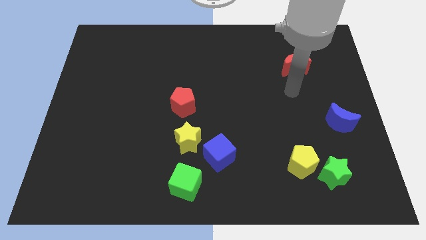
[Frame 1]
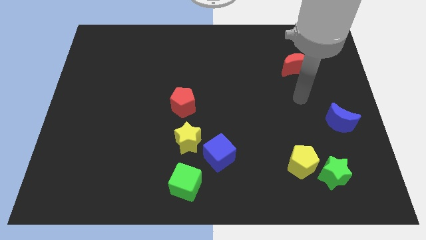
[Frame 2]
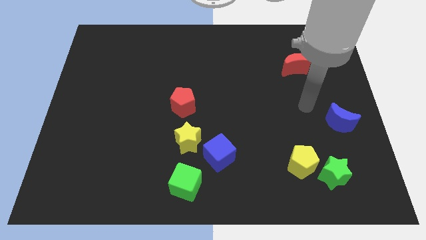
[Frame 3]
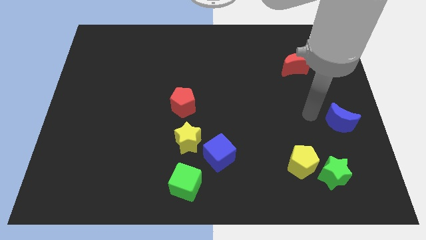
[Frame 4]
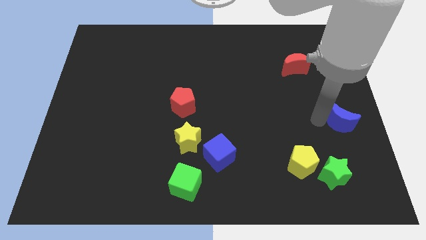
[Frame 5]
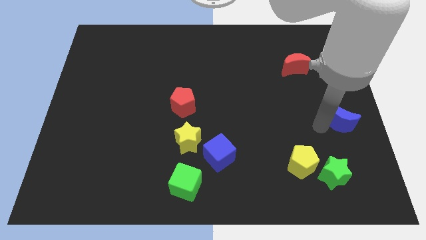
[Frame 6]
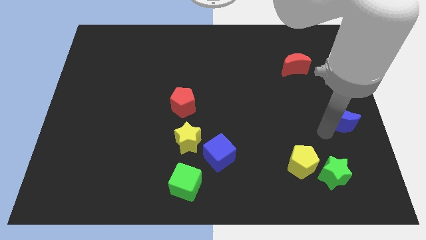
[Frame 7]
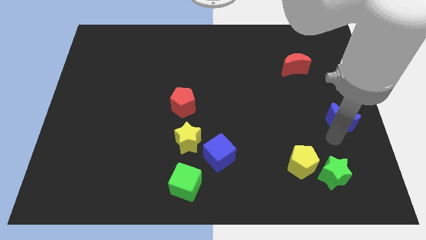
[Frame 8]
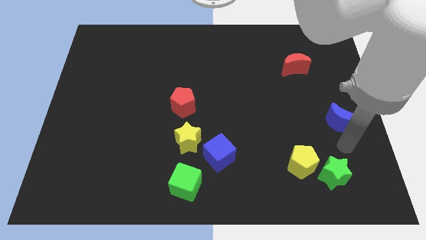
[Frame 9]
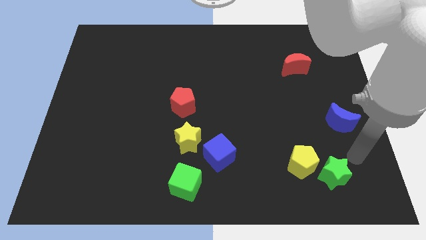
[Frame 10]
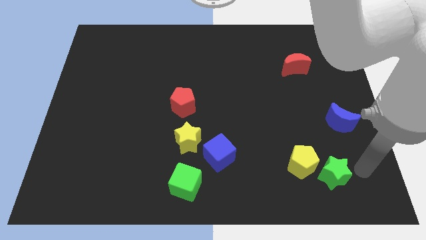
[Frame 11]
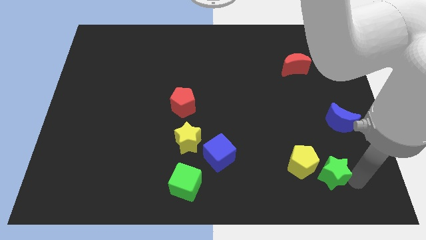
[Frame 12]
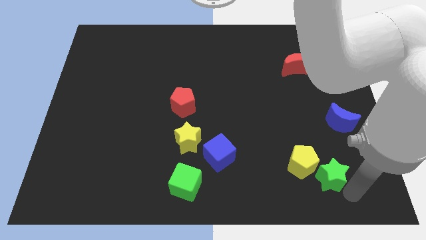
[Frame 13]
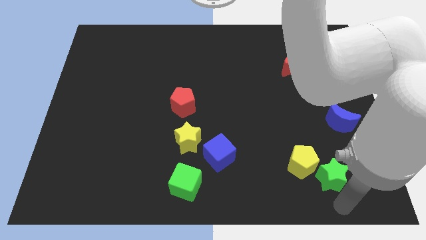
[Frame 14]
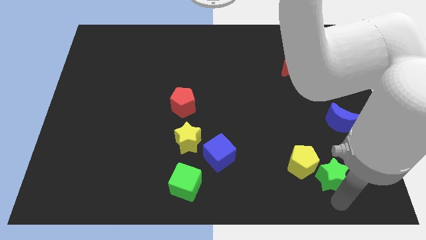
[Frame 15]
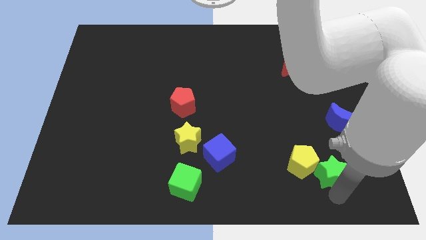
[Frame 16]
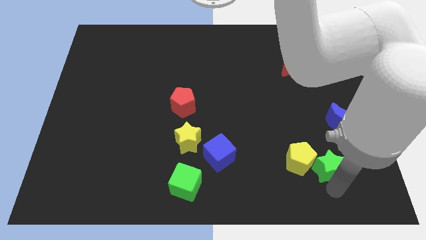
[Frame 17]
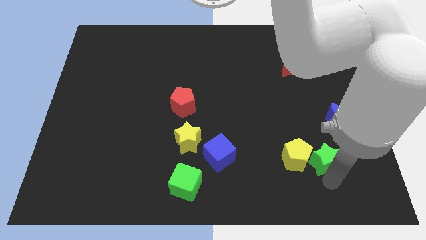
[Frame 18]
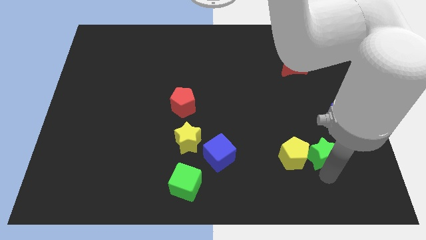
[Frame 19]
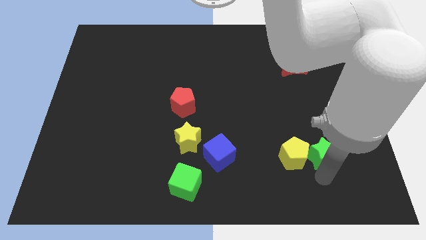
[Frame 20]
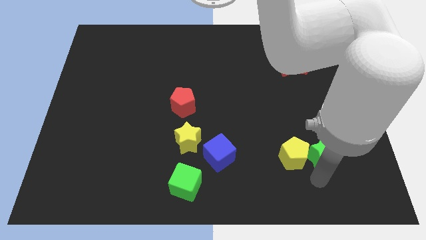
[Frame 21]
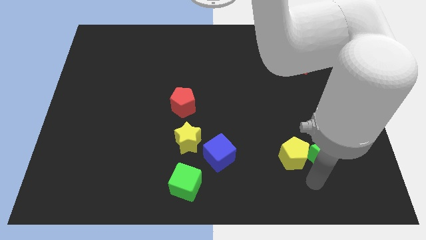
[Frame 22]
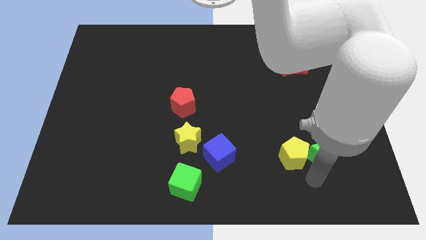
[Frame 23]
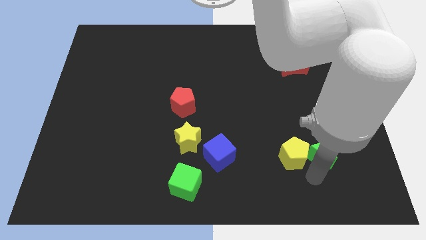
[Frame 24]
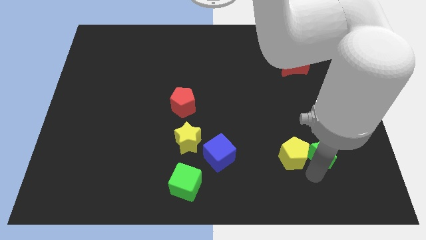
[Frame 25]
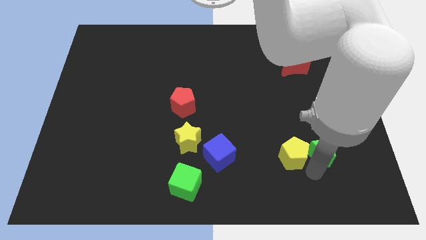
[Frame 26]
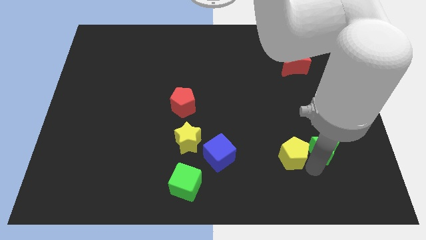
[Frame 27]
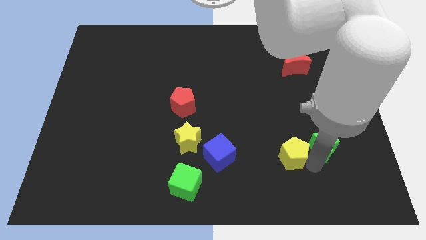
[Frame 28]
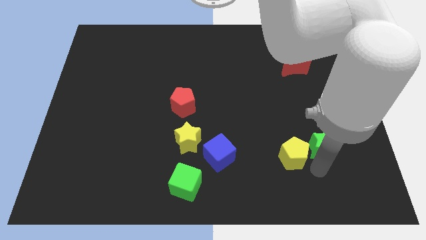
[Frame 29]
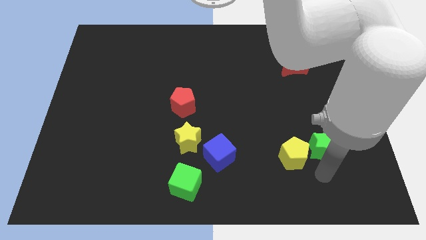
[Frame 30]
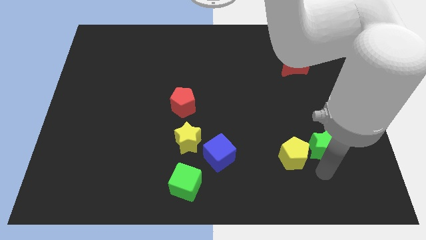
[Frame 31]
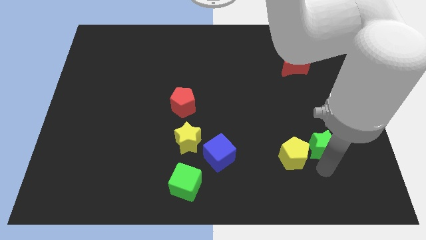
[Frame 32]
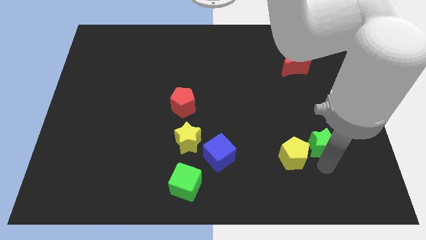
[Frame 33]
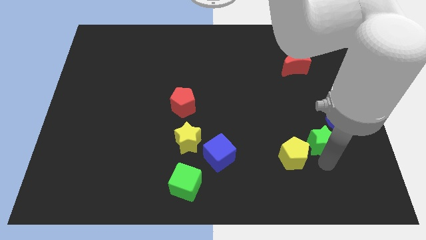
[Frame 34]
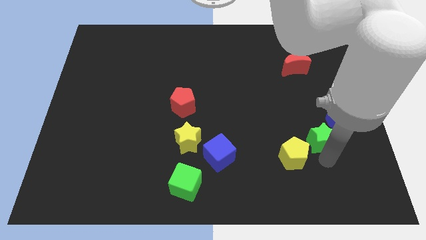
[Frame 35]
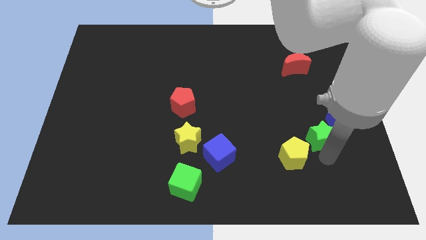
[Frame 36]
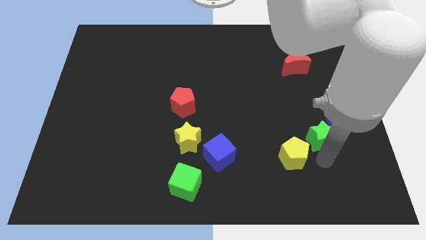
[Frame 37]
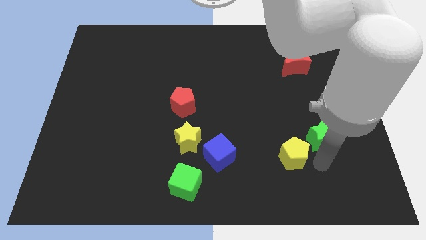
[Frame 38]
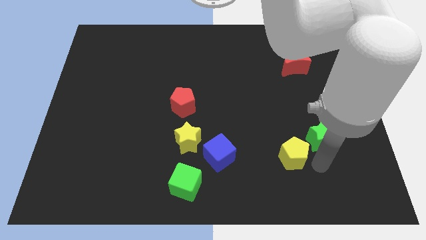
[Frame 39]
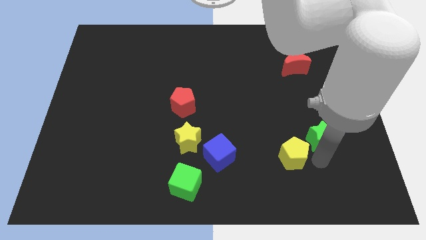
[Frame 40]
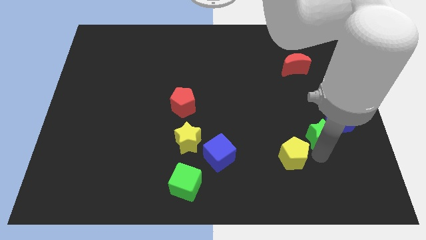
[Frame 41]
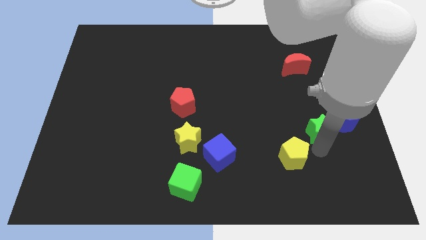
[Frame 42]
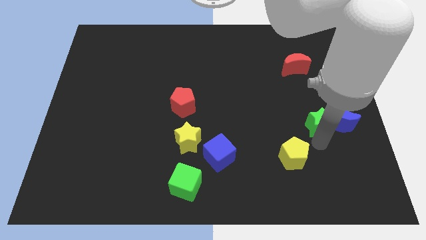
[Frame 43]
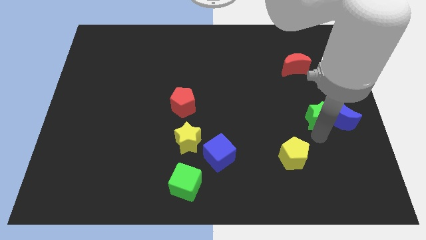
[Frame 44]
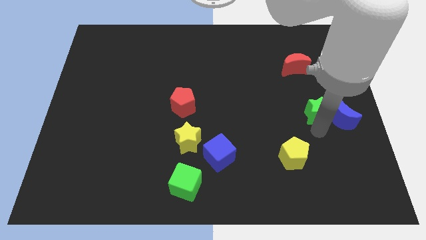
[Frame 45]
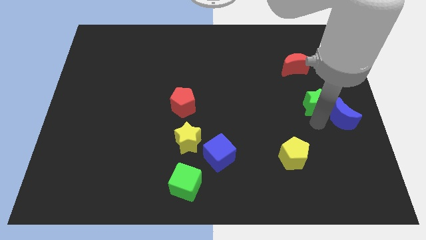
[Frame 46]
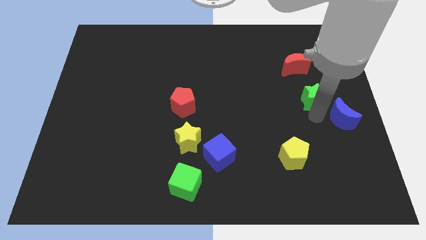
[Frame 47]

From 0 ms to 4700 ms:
move the green star up

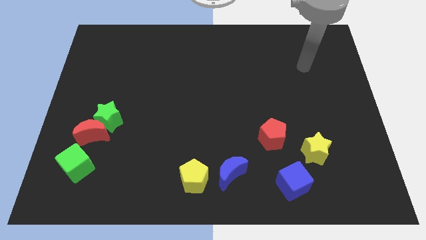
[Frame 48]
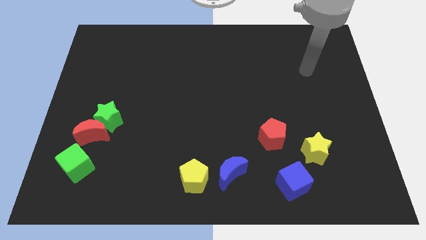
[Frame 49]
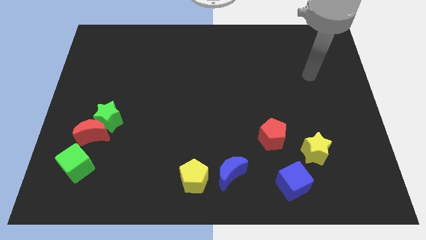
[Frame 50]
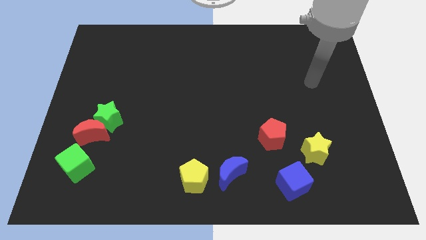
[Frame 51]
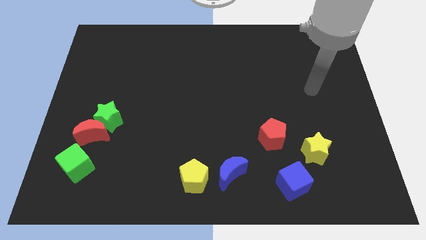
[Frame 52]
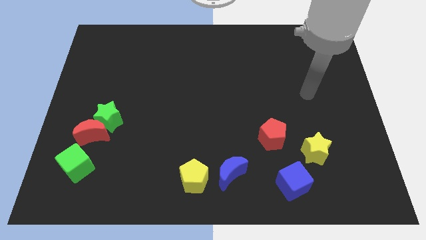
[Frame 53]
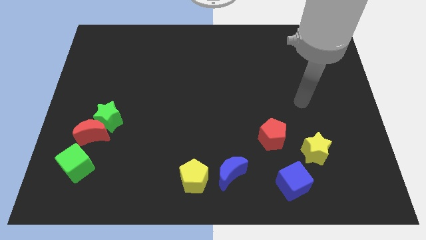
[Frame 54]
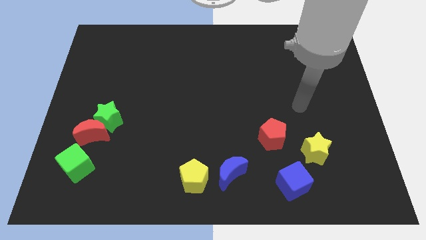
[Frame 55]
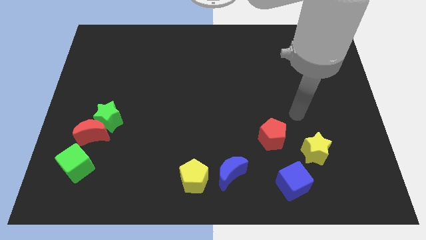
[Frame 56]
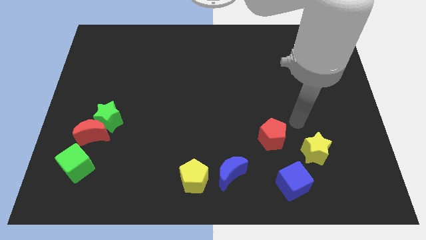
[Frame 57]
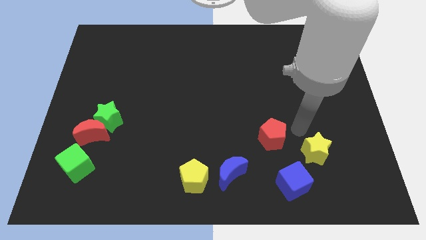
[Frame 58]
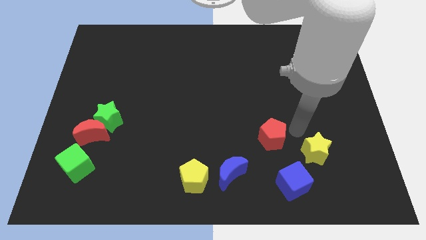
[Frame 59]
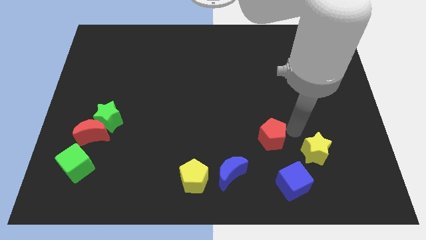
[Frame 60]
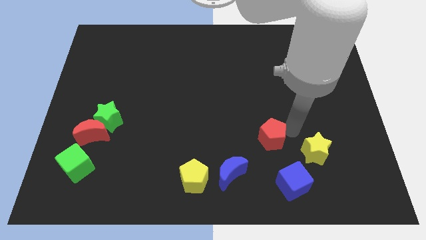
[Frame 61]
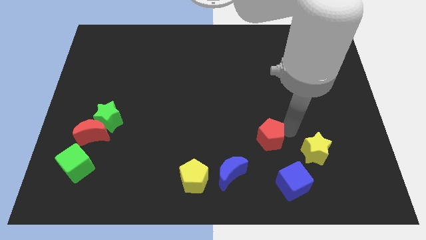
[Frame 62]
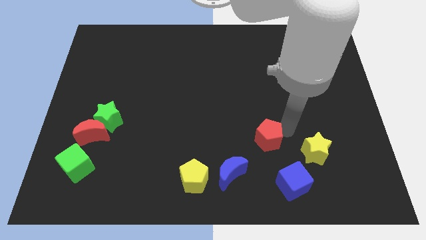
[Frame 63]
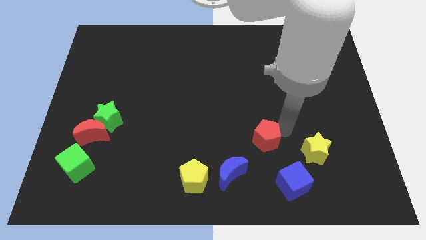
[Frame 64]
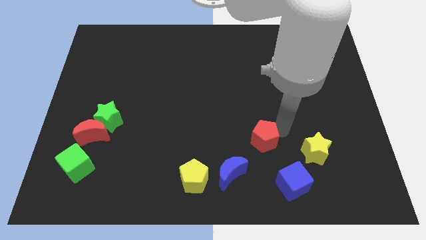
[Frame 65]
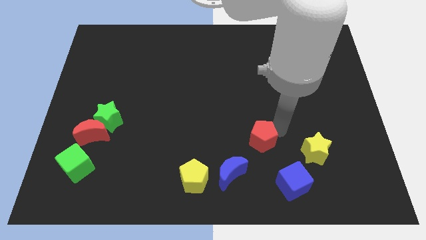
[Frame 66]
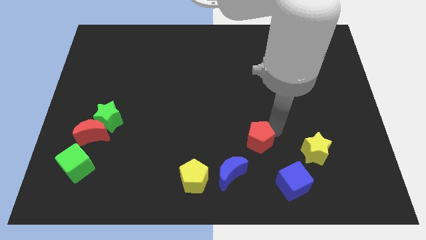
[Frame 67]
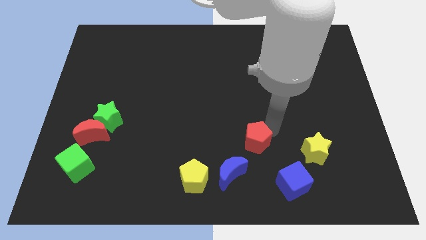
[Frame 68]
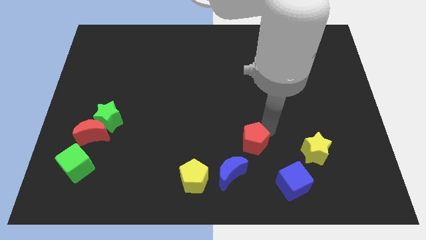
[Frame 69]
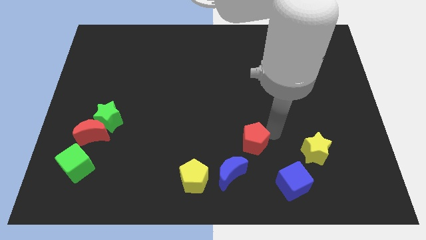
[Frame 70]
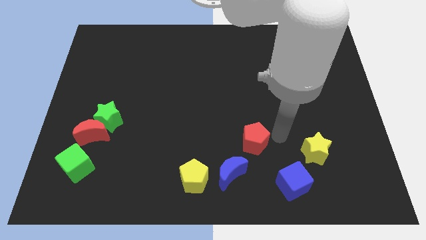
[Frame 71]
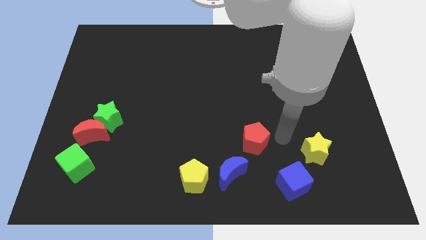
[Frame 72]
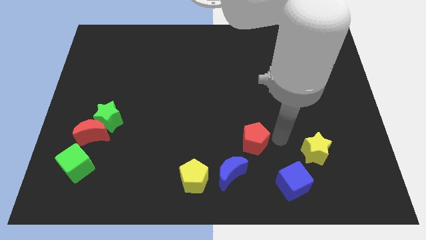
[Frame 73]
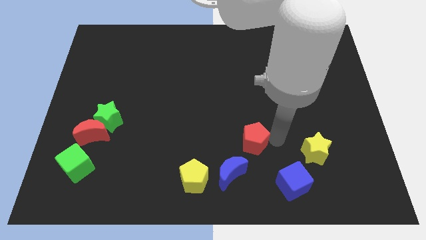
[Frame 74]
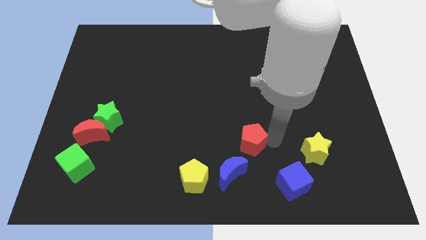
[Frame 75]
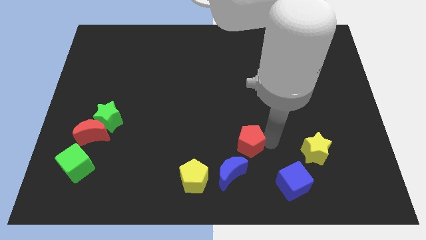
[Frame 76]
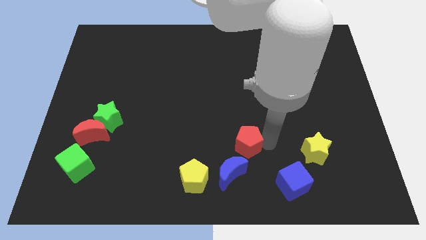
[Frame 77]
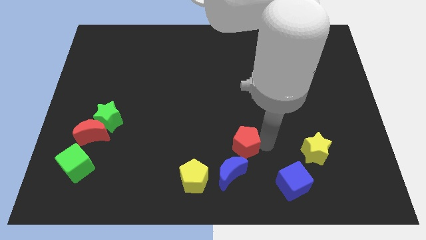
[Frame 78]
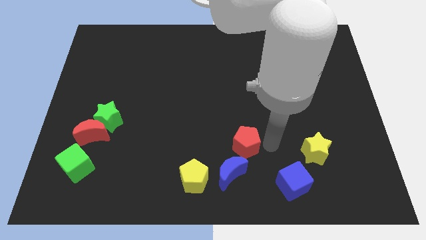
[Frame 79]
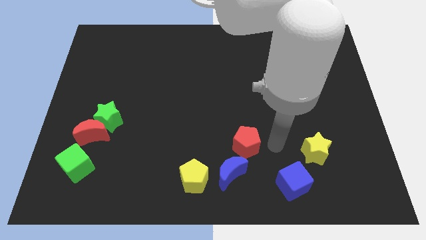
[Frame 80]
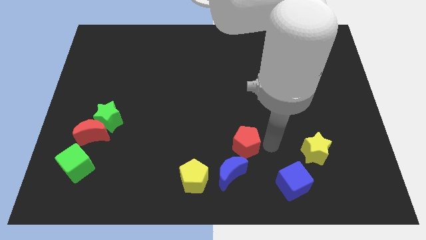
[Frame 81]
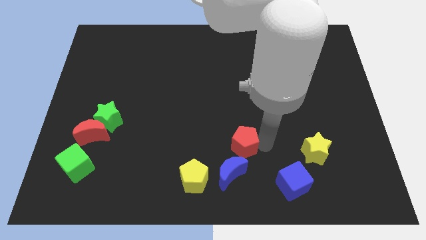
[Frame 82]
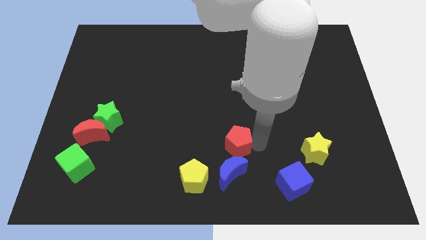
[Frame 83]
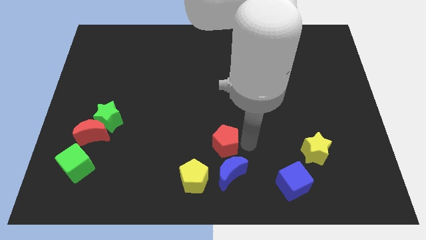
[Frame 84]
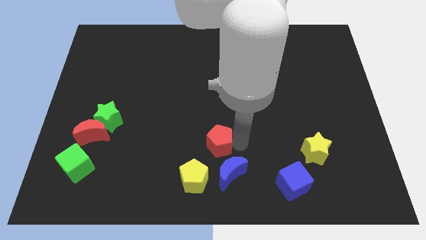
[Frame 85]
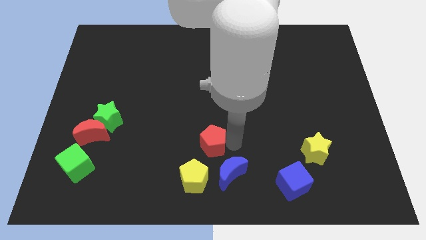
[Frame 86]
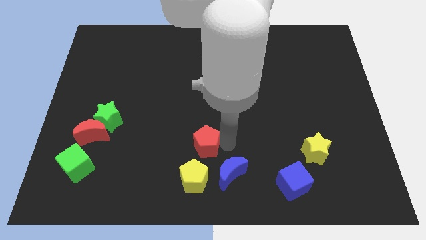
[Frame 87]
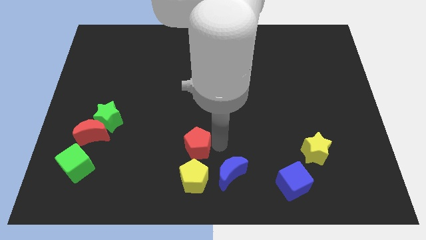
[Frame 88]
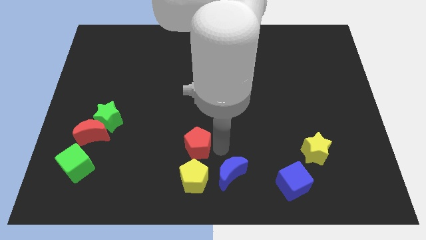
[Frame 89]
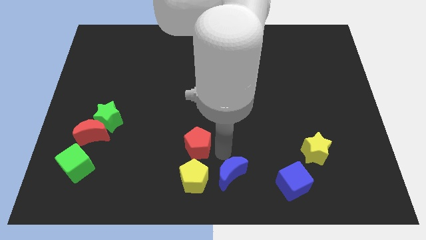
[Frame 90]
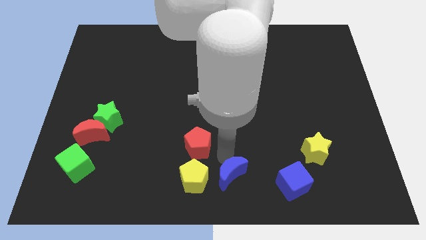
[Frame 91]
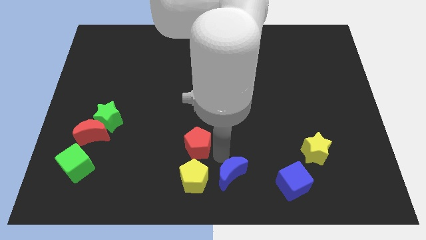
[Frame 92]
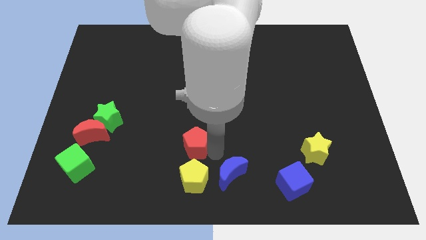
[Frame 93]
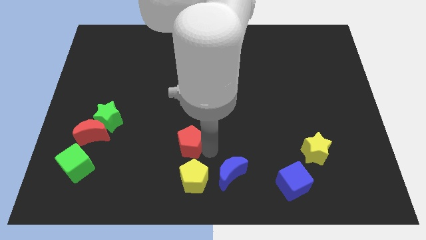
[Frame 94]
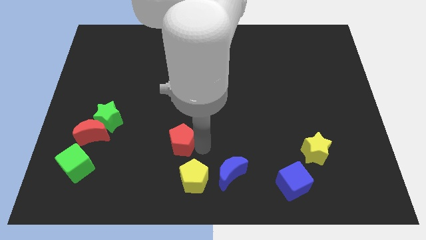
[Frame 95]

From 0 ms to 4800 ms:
slide the red pentagon left
